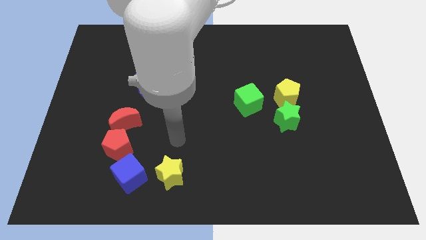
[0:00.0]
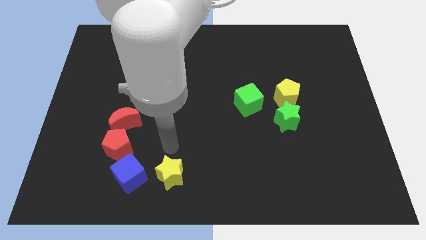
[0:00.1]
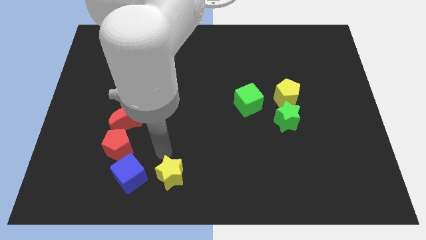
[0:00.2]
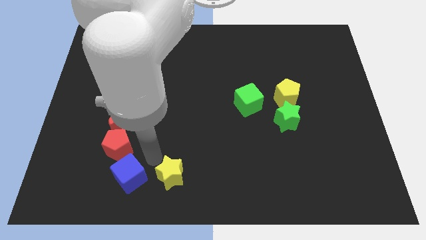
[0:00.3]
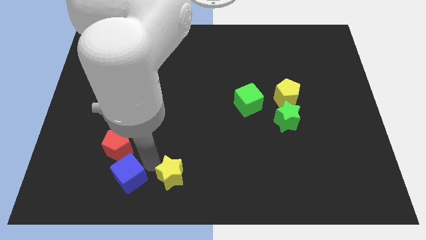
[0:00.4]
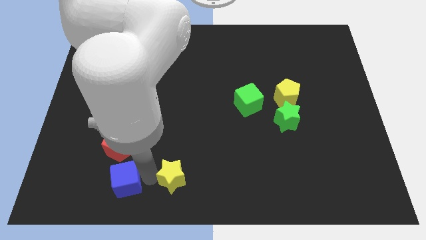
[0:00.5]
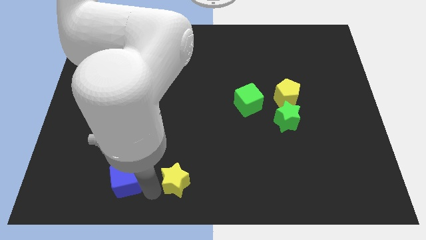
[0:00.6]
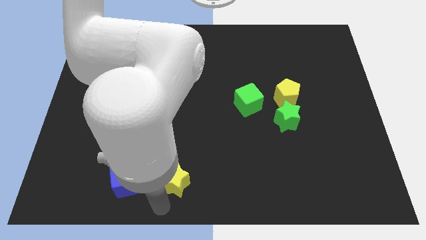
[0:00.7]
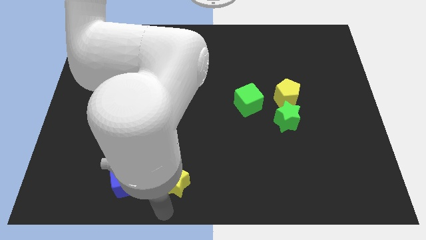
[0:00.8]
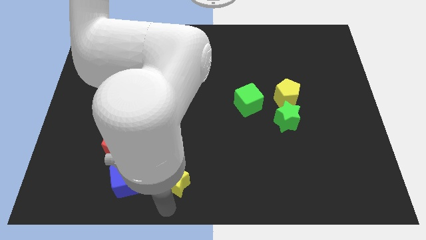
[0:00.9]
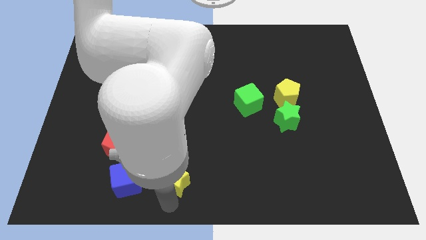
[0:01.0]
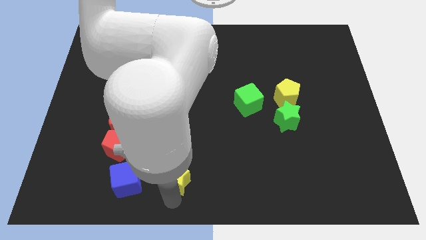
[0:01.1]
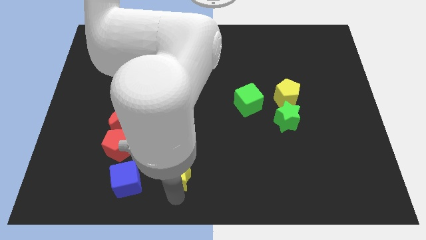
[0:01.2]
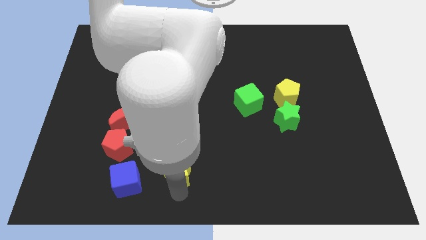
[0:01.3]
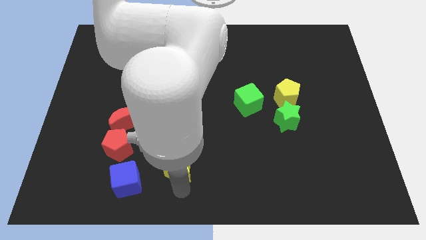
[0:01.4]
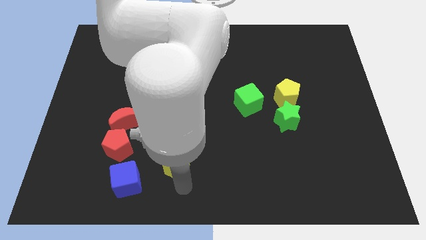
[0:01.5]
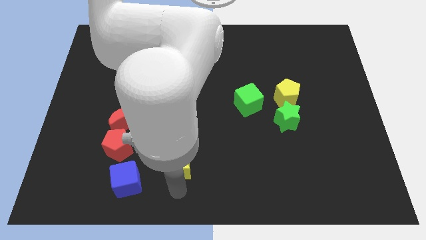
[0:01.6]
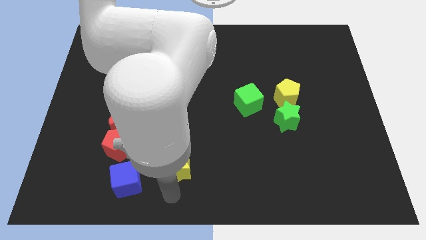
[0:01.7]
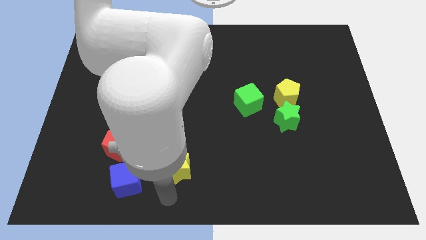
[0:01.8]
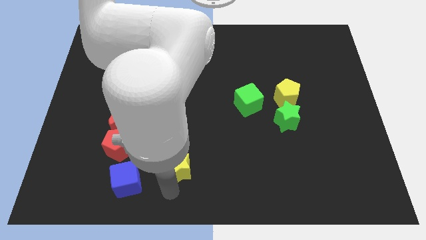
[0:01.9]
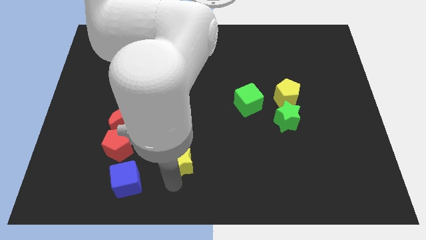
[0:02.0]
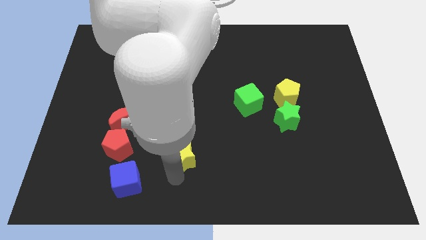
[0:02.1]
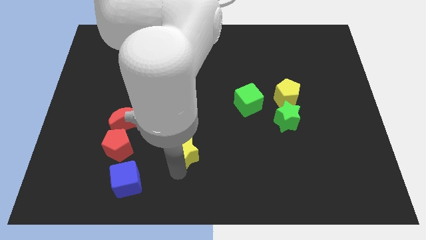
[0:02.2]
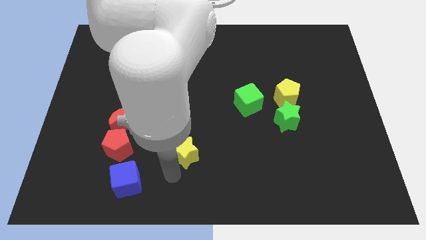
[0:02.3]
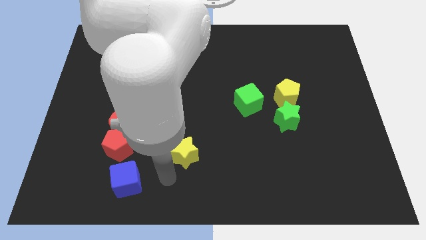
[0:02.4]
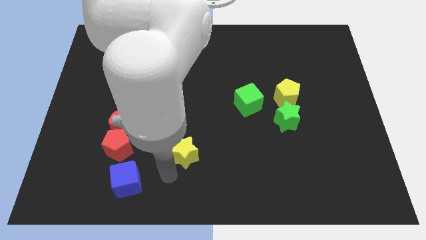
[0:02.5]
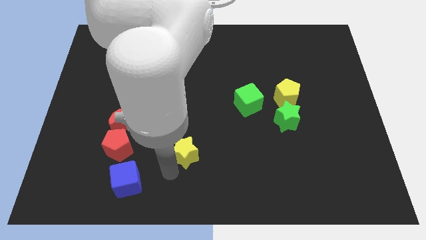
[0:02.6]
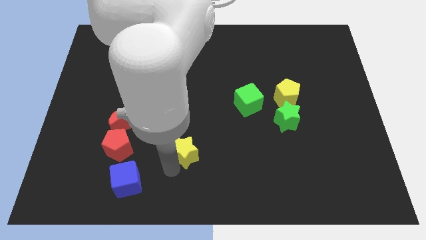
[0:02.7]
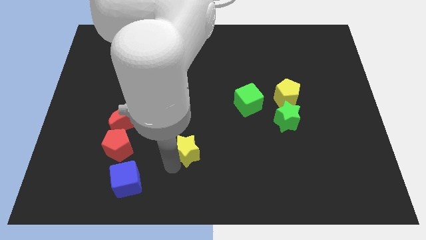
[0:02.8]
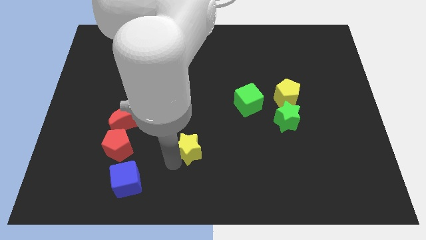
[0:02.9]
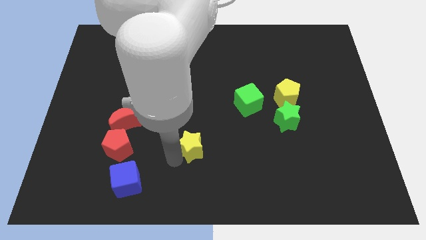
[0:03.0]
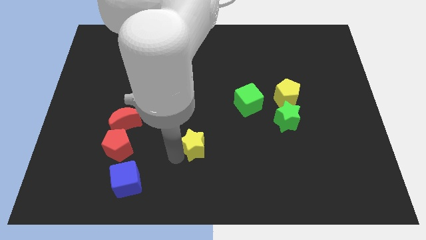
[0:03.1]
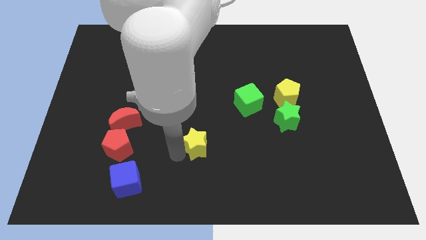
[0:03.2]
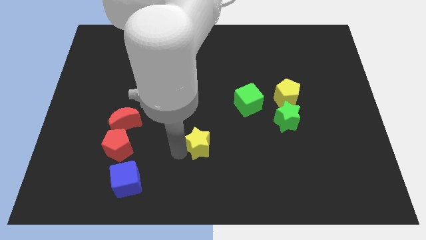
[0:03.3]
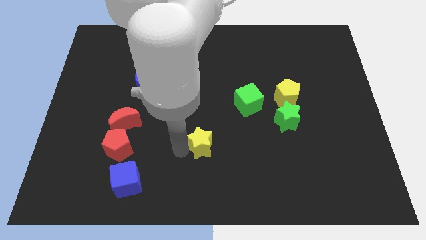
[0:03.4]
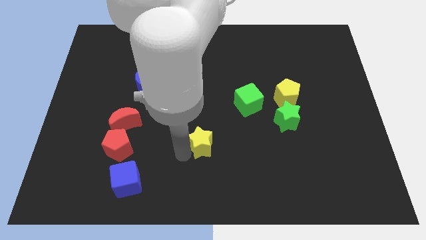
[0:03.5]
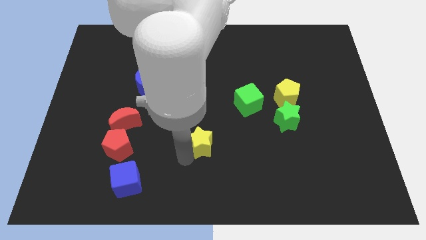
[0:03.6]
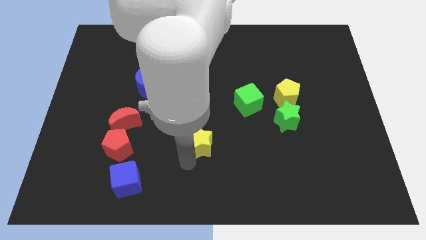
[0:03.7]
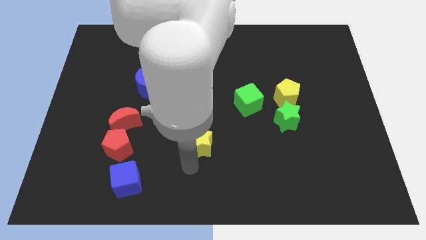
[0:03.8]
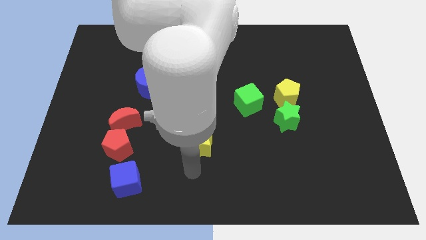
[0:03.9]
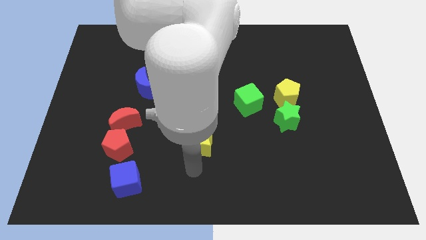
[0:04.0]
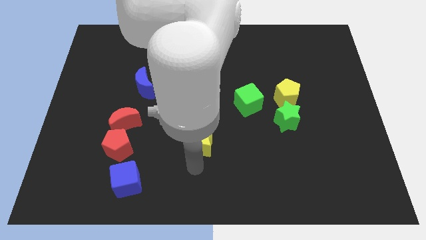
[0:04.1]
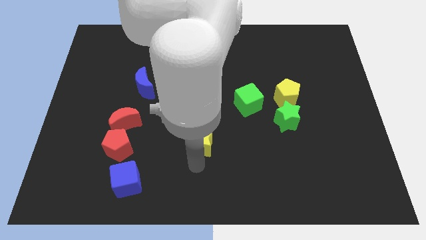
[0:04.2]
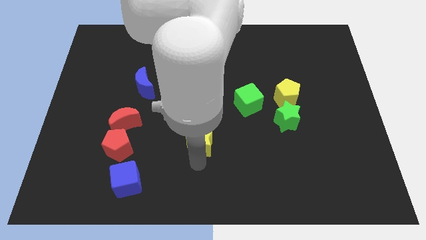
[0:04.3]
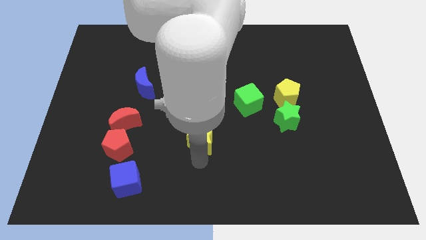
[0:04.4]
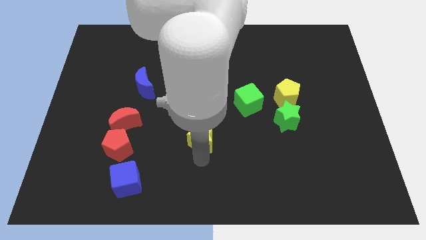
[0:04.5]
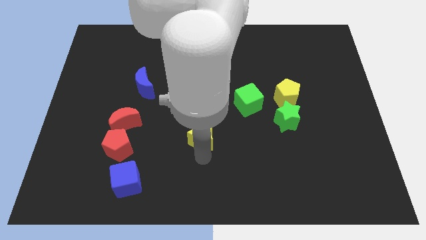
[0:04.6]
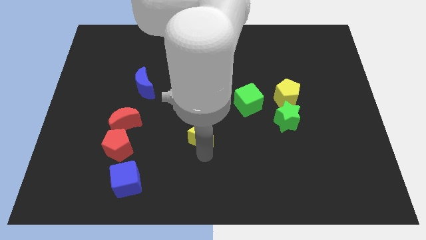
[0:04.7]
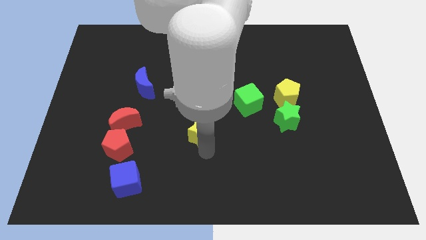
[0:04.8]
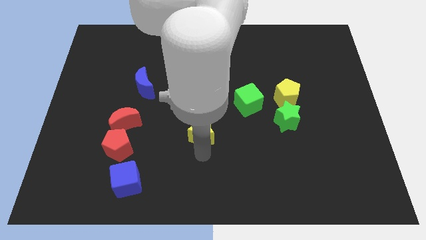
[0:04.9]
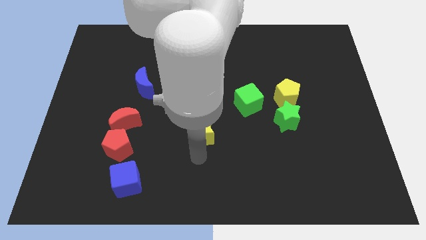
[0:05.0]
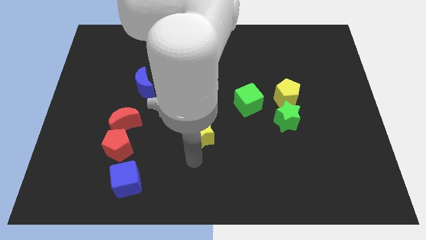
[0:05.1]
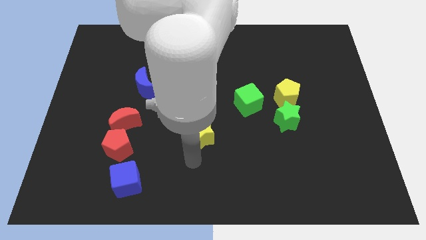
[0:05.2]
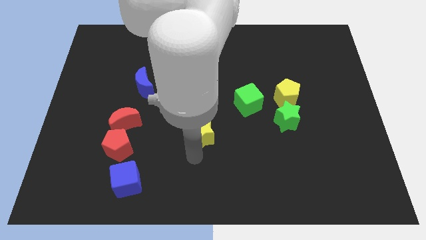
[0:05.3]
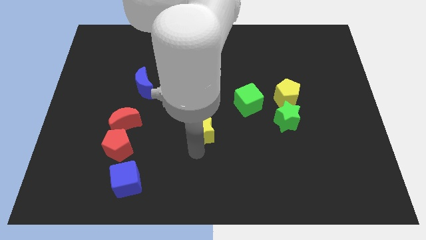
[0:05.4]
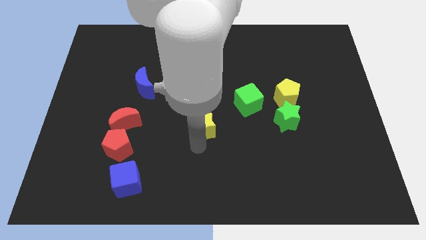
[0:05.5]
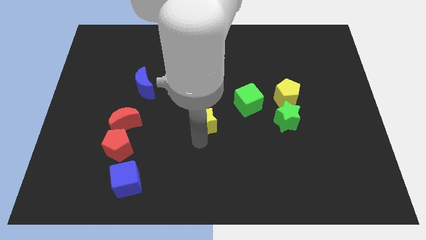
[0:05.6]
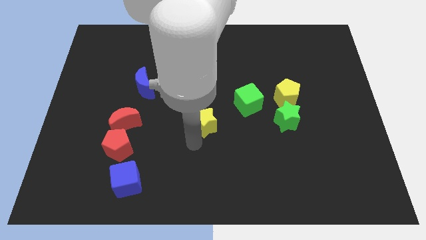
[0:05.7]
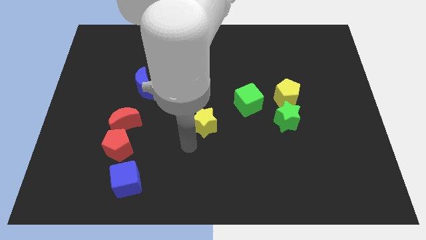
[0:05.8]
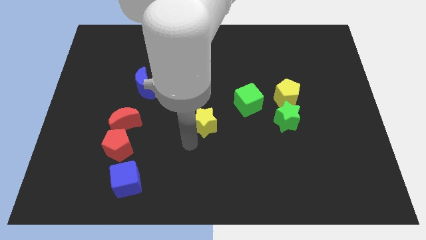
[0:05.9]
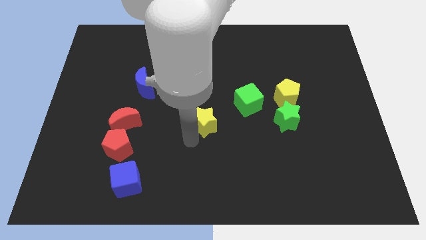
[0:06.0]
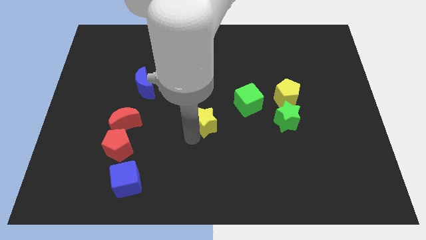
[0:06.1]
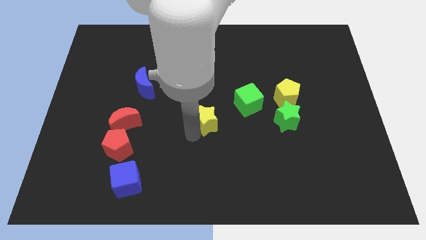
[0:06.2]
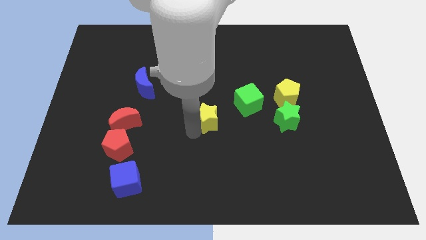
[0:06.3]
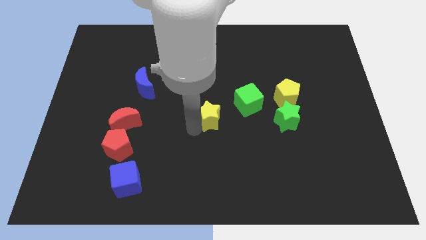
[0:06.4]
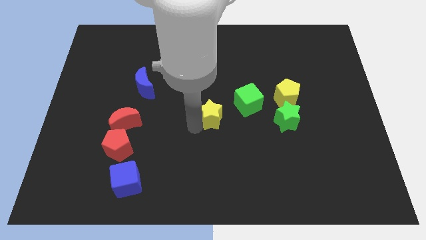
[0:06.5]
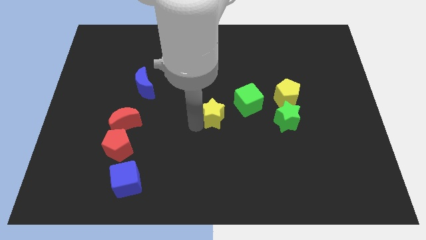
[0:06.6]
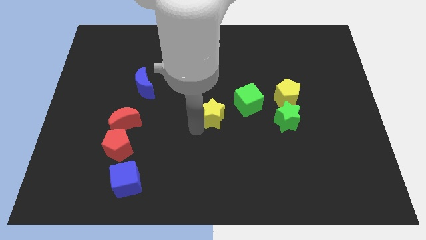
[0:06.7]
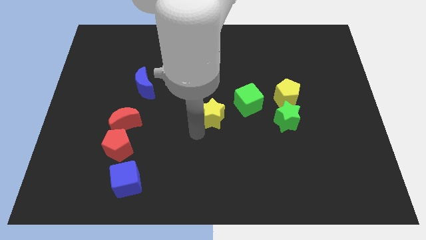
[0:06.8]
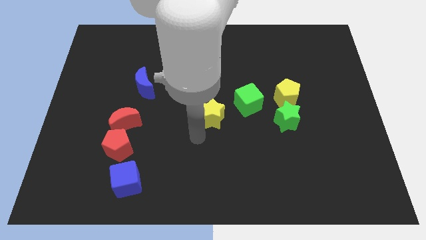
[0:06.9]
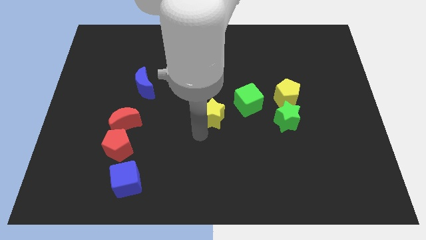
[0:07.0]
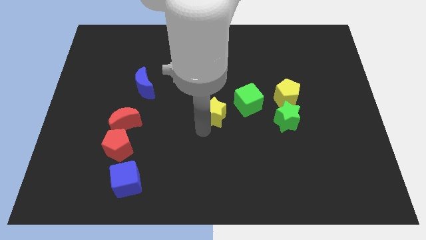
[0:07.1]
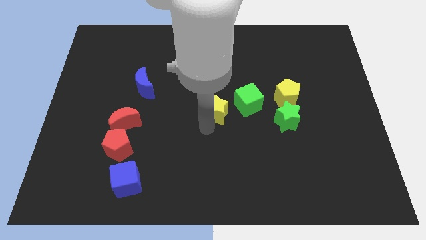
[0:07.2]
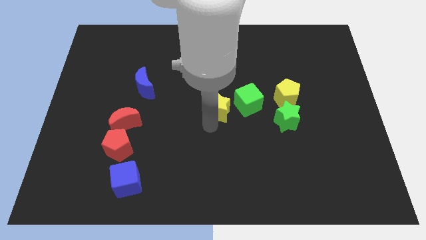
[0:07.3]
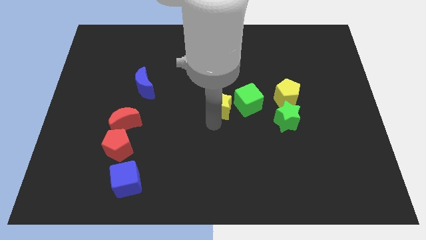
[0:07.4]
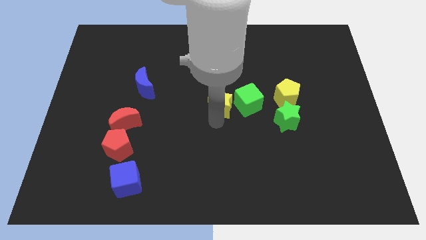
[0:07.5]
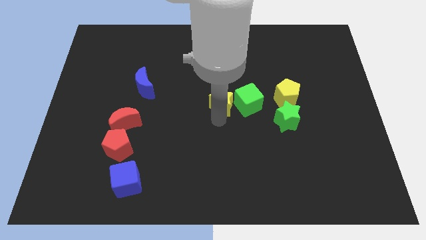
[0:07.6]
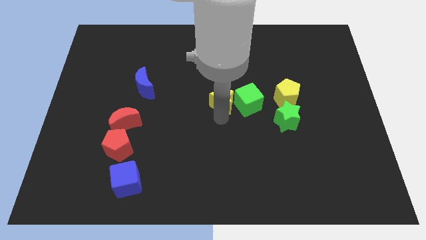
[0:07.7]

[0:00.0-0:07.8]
move the yellow star to the top left side of the green cube
